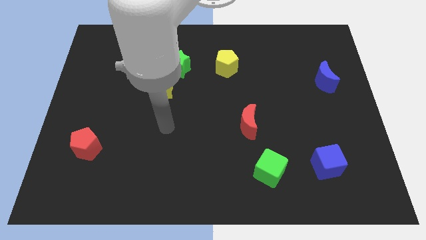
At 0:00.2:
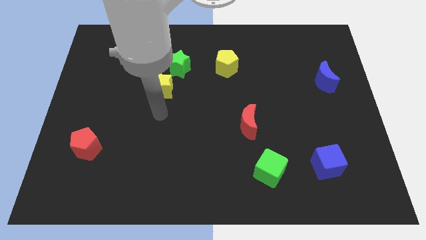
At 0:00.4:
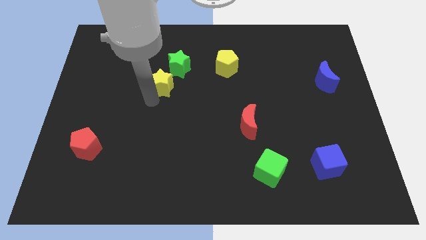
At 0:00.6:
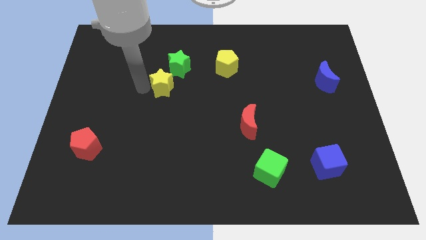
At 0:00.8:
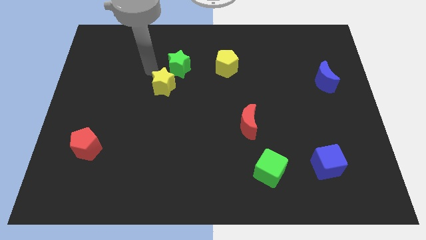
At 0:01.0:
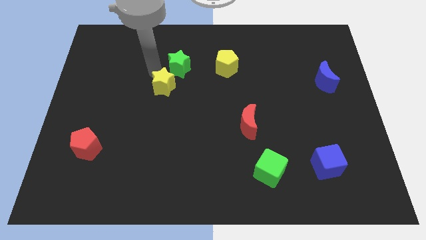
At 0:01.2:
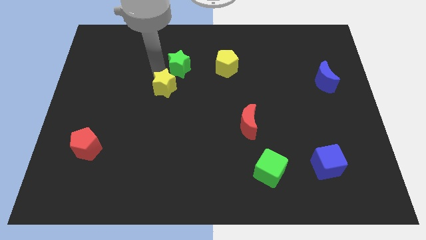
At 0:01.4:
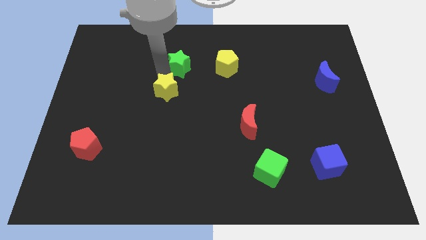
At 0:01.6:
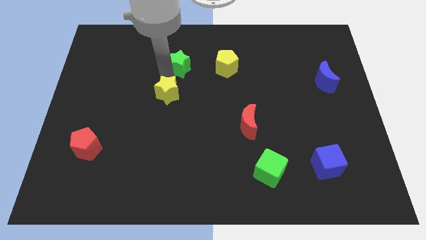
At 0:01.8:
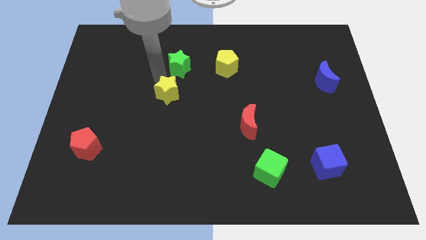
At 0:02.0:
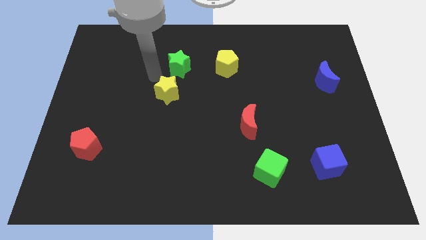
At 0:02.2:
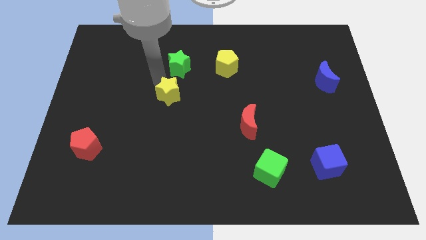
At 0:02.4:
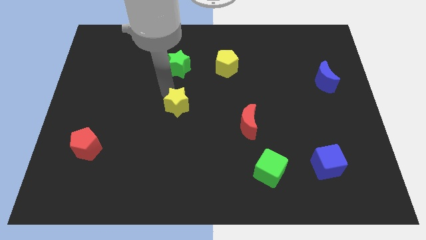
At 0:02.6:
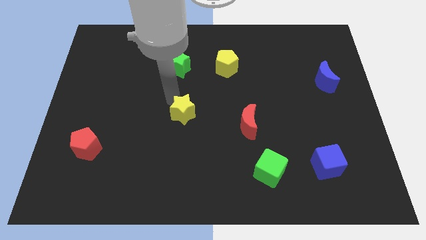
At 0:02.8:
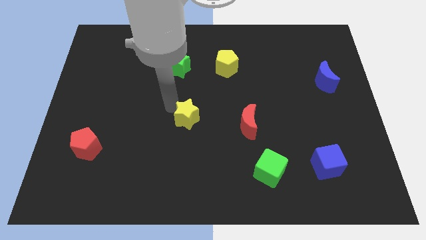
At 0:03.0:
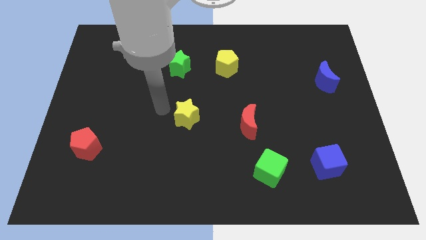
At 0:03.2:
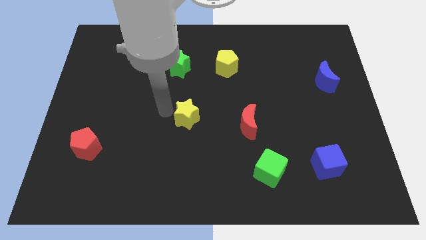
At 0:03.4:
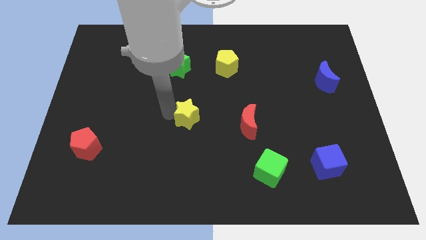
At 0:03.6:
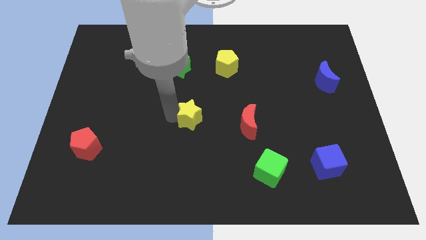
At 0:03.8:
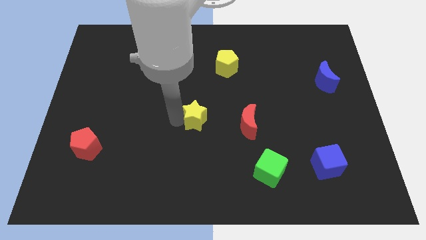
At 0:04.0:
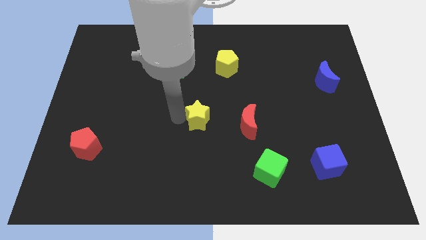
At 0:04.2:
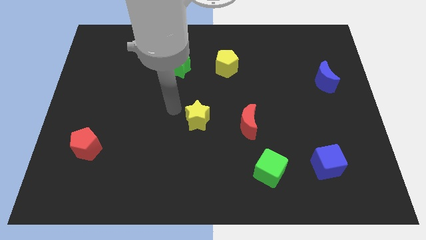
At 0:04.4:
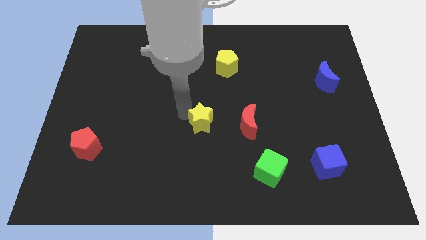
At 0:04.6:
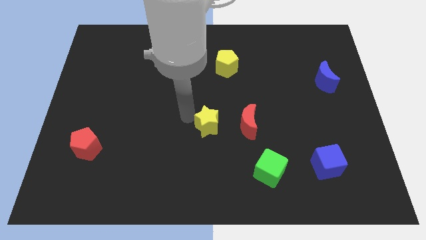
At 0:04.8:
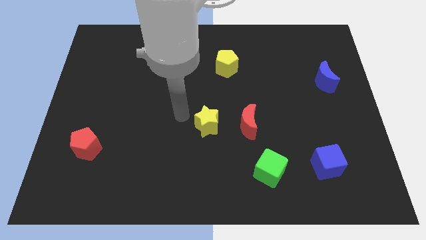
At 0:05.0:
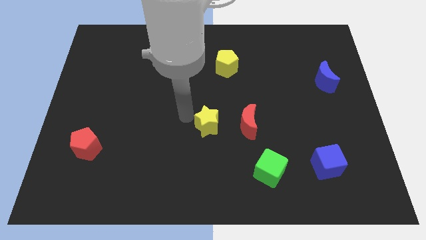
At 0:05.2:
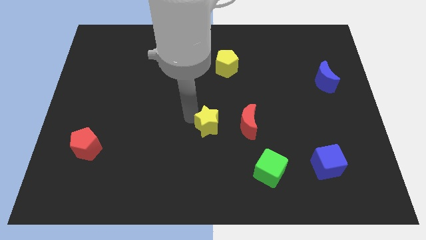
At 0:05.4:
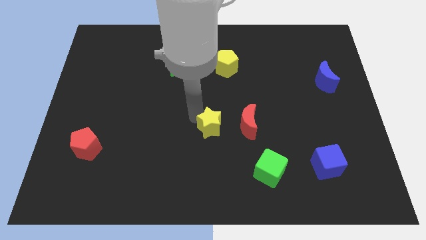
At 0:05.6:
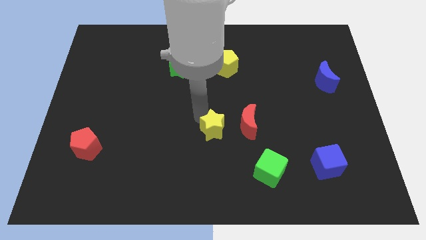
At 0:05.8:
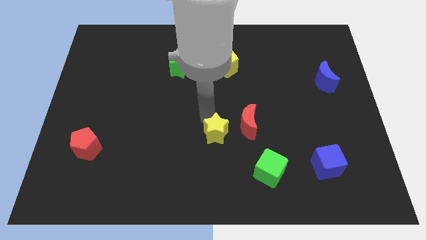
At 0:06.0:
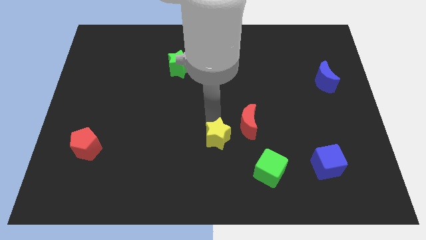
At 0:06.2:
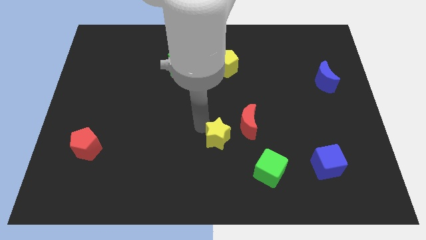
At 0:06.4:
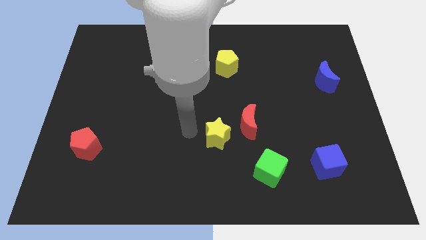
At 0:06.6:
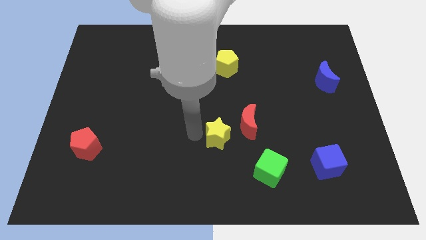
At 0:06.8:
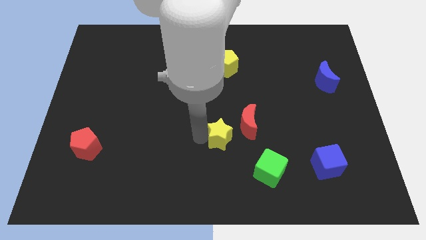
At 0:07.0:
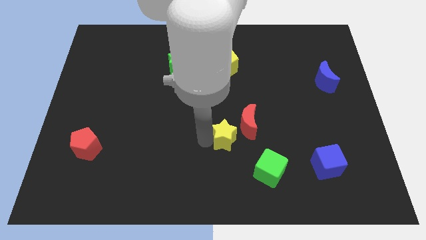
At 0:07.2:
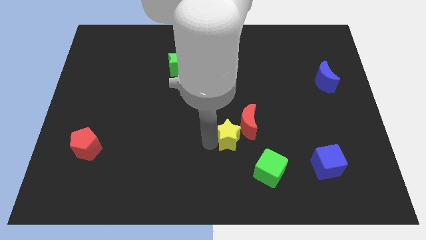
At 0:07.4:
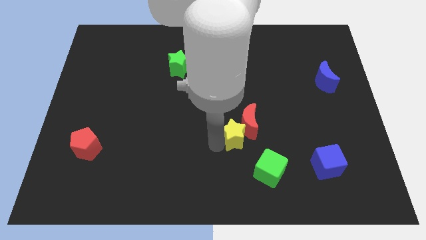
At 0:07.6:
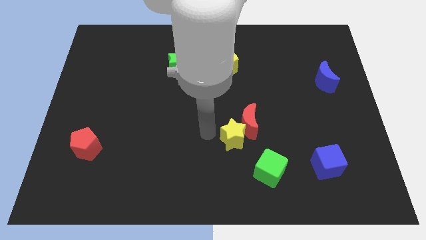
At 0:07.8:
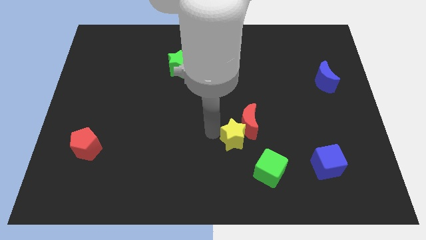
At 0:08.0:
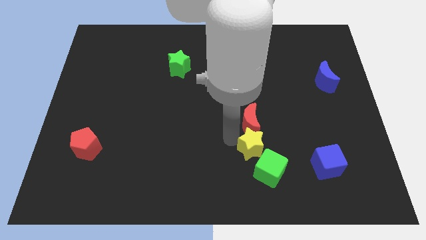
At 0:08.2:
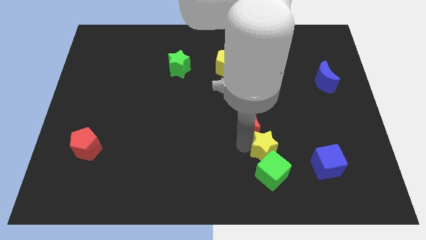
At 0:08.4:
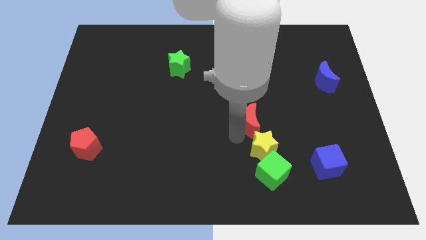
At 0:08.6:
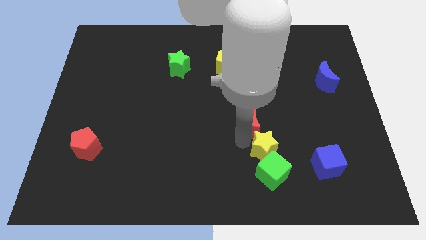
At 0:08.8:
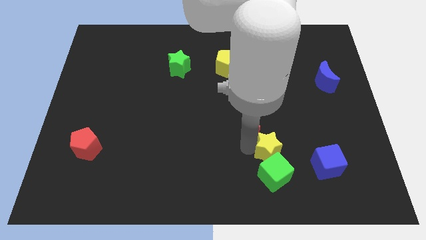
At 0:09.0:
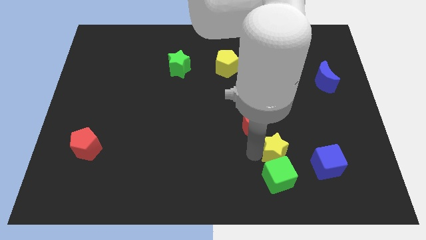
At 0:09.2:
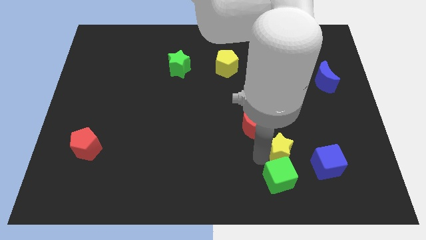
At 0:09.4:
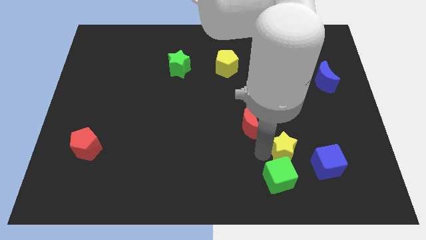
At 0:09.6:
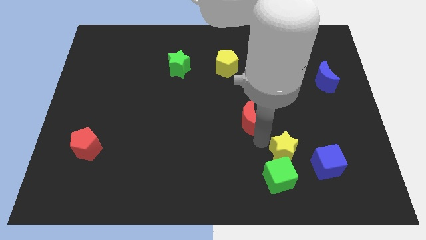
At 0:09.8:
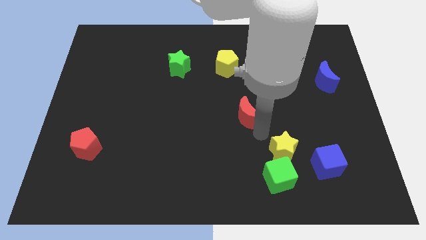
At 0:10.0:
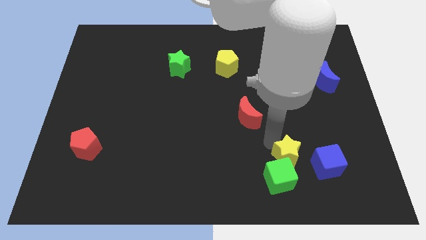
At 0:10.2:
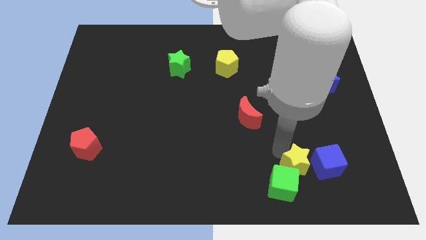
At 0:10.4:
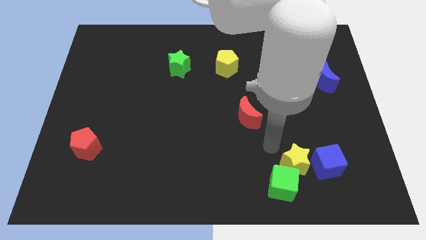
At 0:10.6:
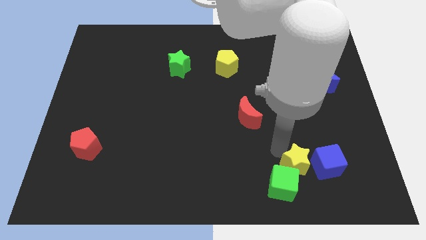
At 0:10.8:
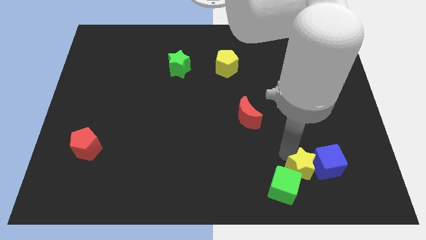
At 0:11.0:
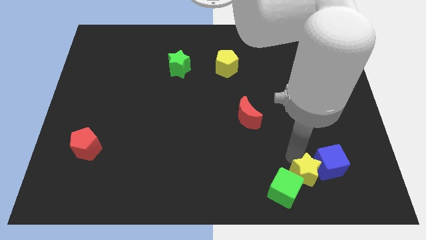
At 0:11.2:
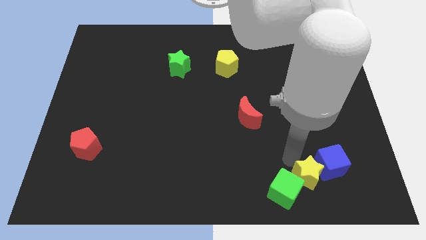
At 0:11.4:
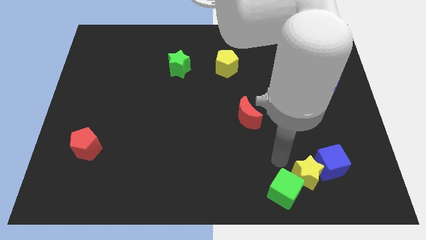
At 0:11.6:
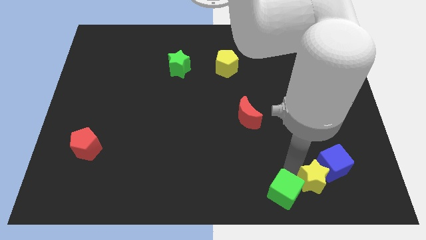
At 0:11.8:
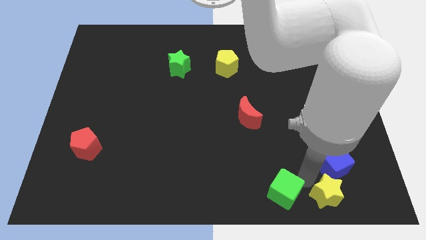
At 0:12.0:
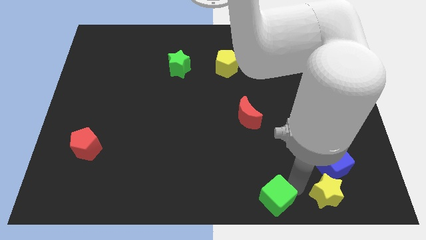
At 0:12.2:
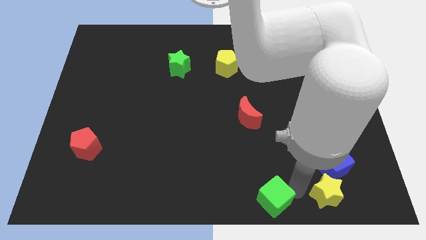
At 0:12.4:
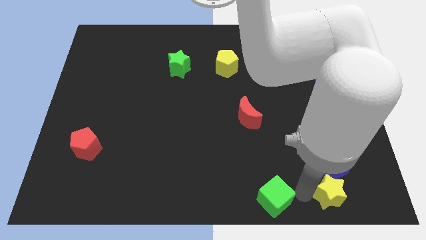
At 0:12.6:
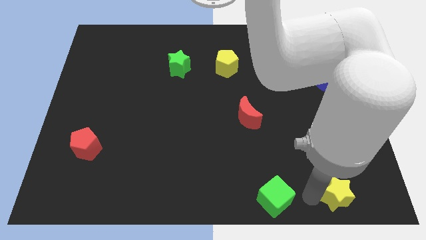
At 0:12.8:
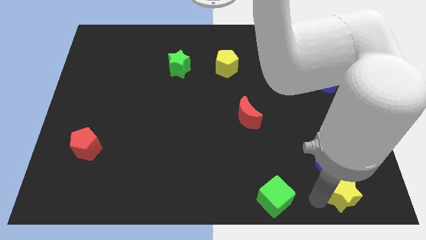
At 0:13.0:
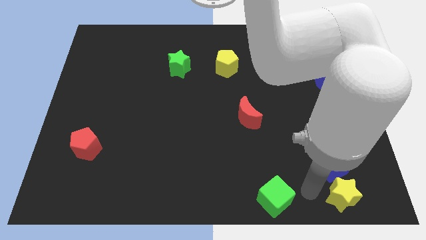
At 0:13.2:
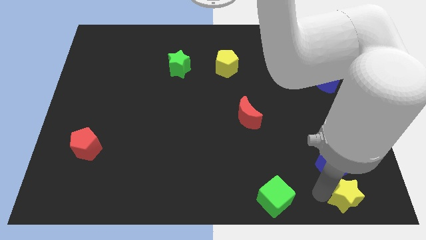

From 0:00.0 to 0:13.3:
push the yellow star to the bottom right of the board
